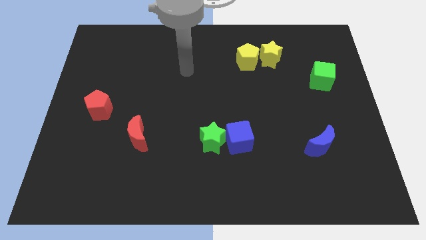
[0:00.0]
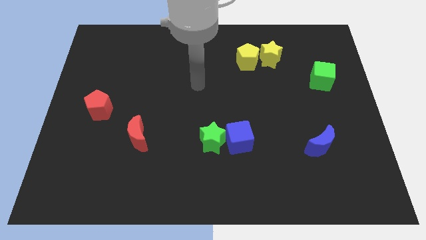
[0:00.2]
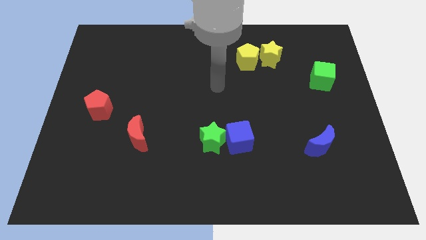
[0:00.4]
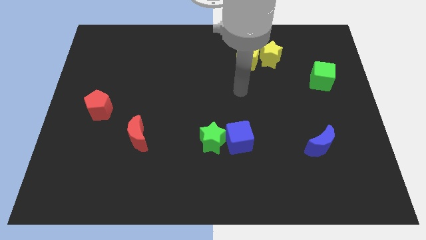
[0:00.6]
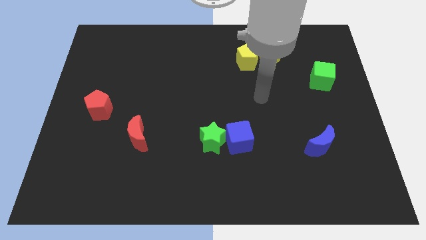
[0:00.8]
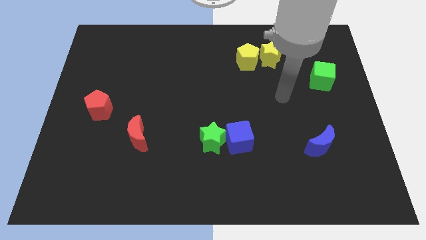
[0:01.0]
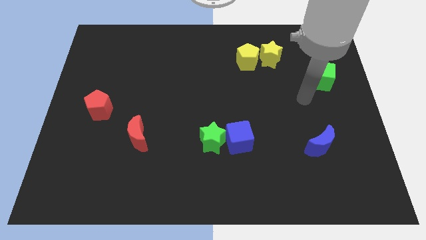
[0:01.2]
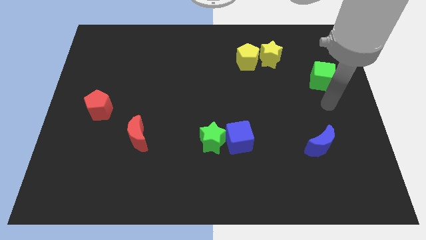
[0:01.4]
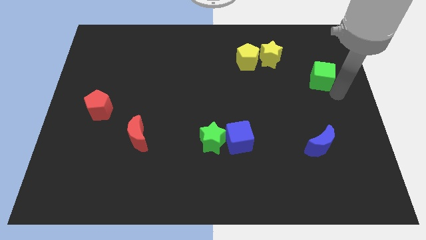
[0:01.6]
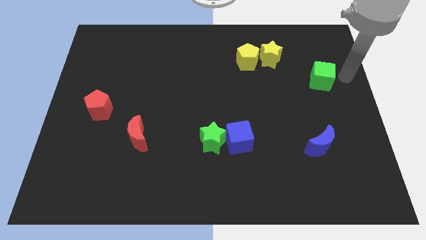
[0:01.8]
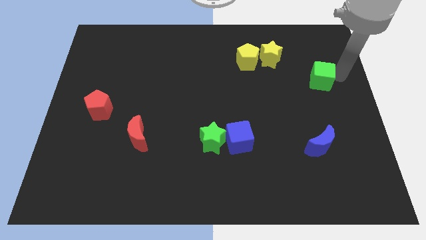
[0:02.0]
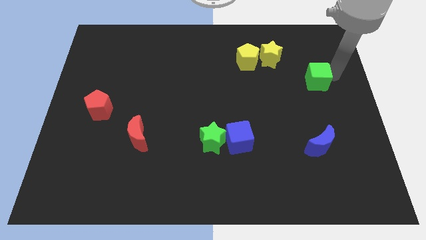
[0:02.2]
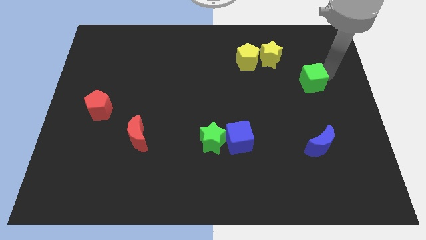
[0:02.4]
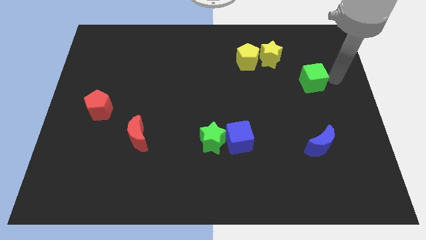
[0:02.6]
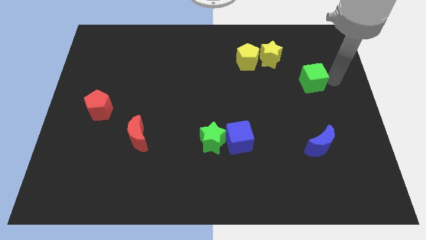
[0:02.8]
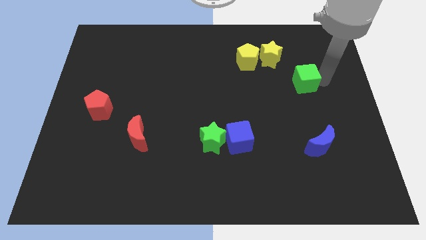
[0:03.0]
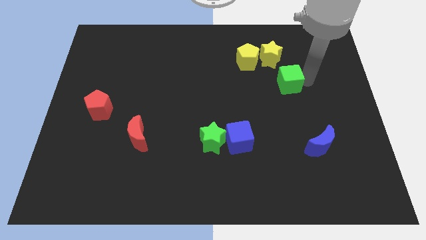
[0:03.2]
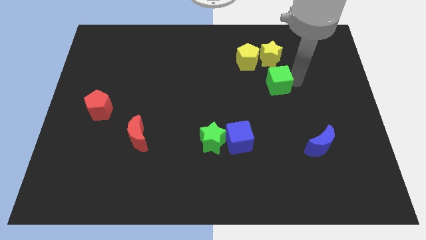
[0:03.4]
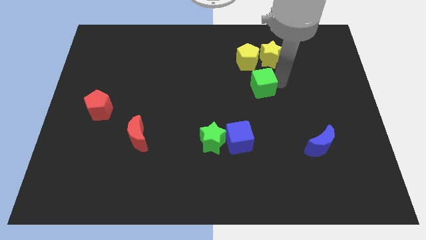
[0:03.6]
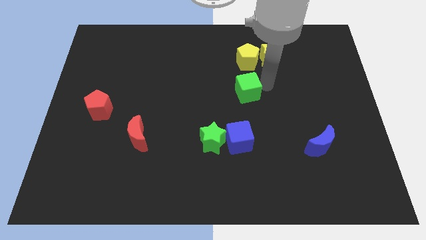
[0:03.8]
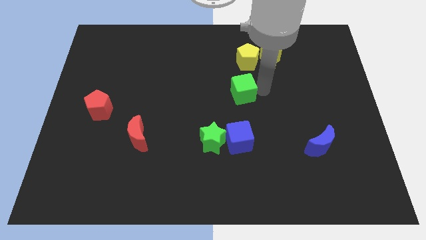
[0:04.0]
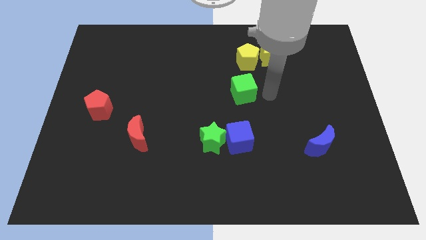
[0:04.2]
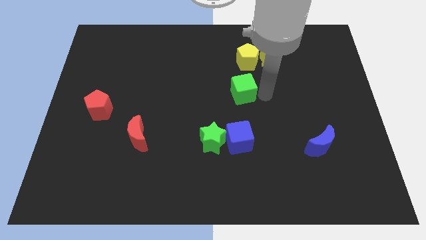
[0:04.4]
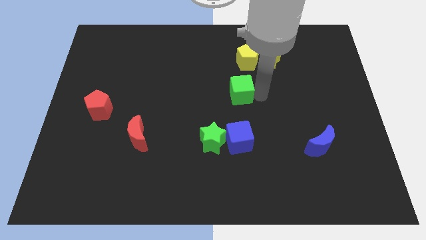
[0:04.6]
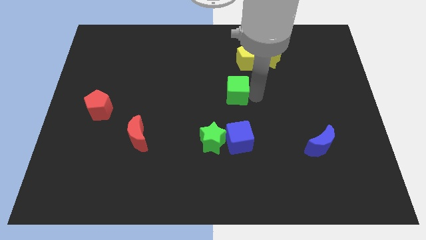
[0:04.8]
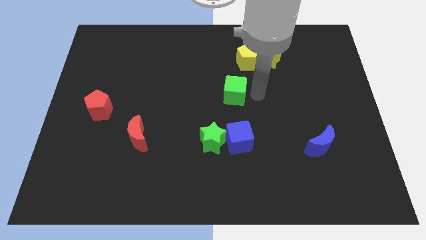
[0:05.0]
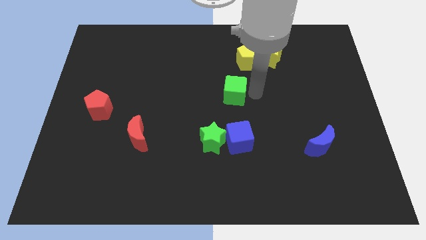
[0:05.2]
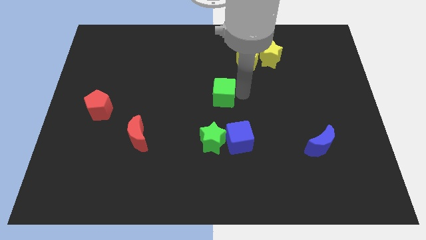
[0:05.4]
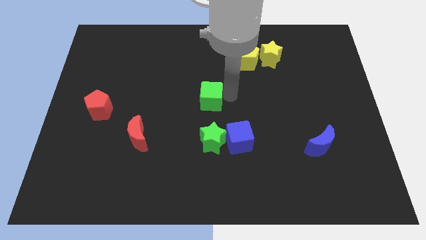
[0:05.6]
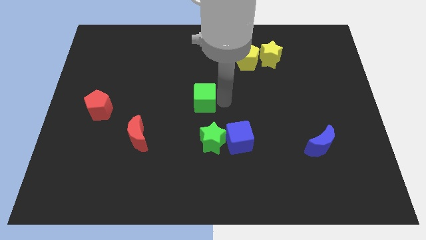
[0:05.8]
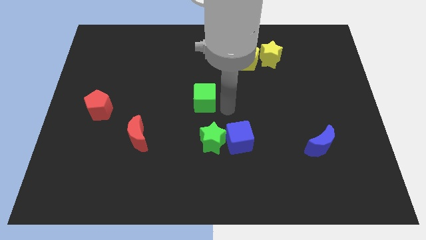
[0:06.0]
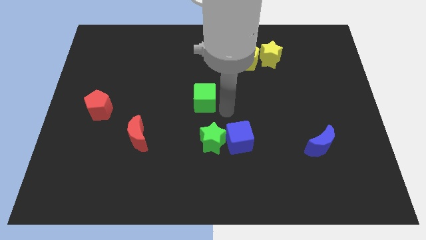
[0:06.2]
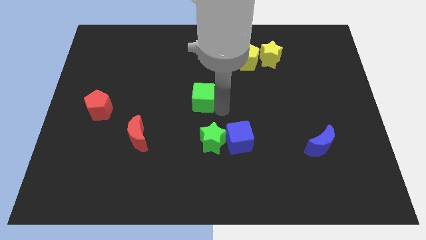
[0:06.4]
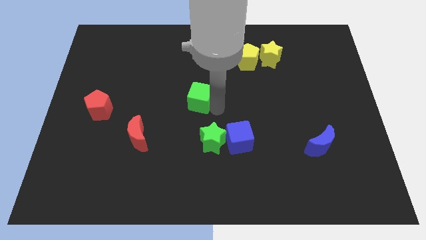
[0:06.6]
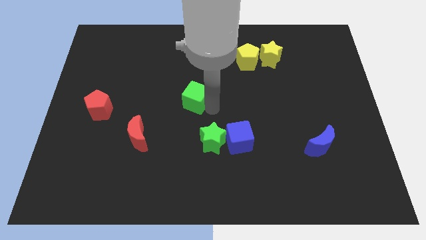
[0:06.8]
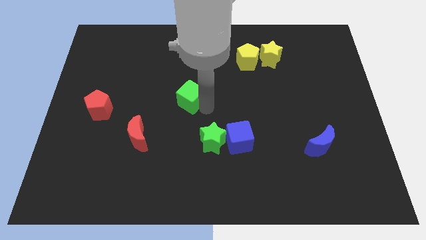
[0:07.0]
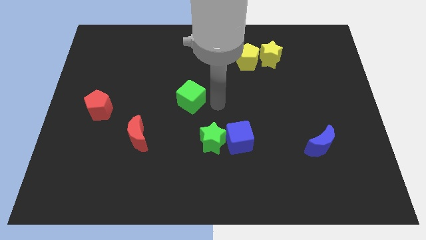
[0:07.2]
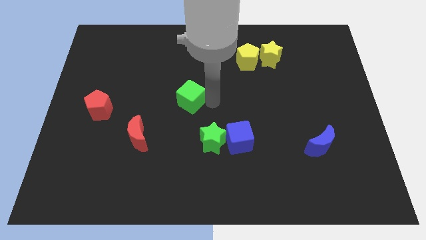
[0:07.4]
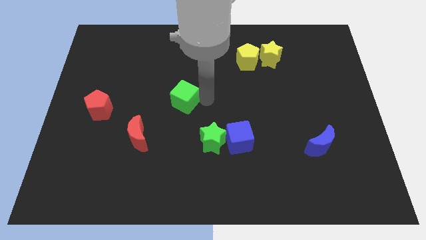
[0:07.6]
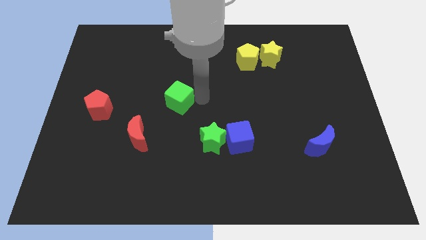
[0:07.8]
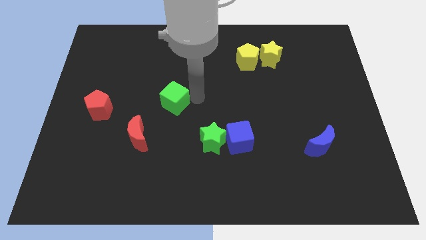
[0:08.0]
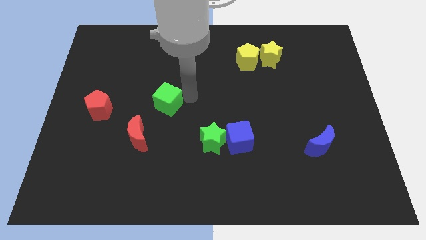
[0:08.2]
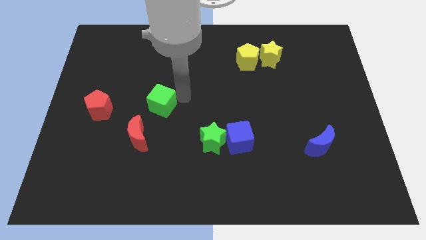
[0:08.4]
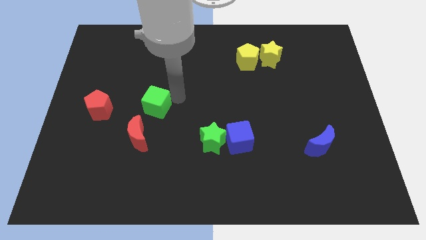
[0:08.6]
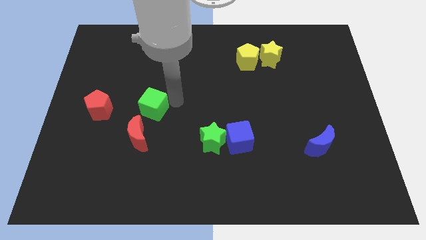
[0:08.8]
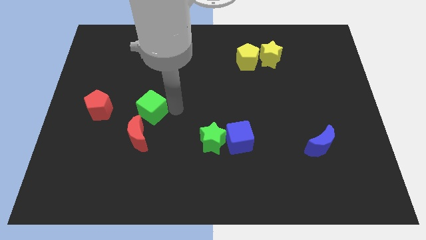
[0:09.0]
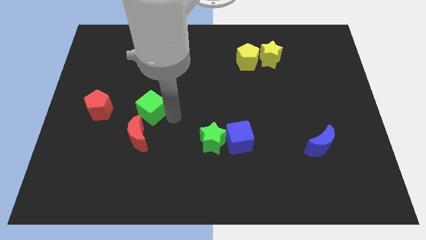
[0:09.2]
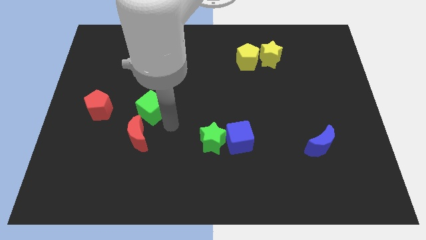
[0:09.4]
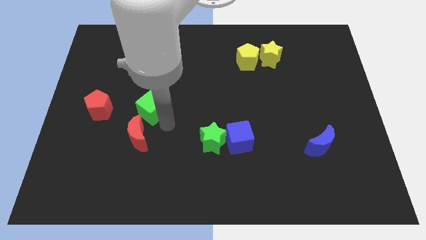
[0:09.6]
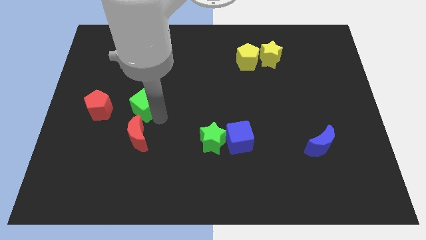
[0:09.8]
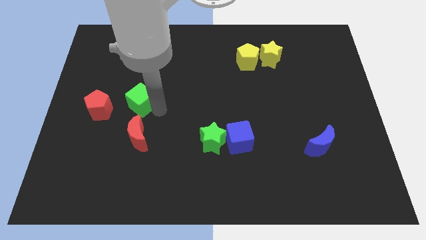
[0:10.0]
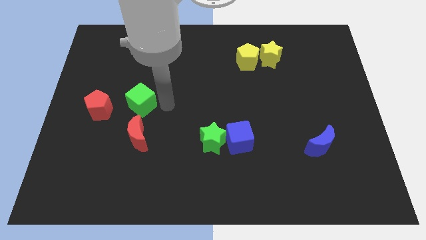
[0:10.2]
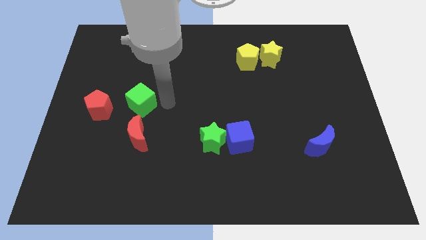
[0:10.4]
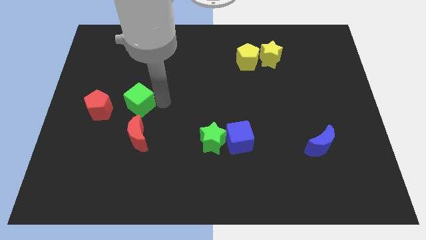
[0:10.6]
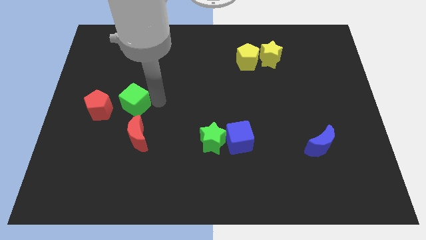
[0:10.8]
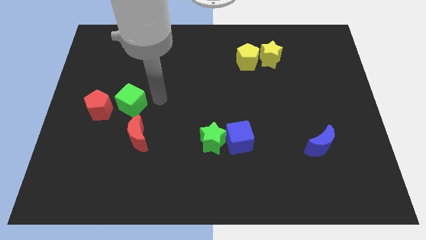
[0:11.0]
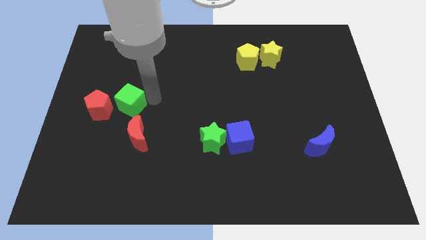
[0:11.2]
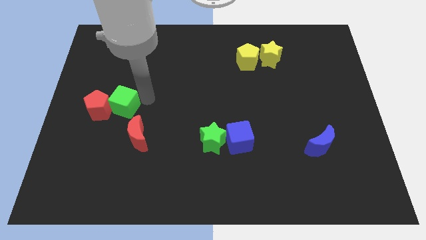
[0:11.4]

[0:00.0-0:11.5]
push the green cube towards the red pentagon

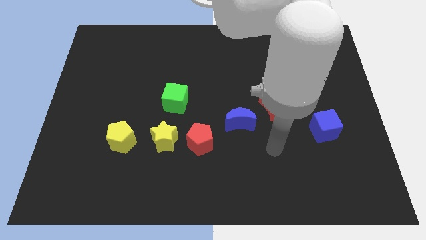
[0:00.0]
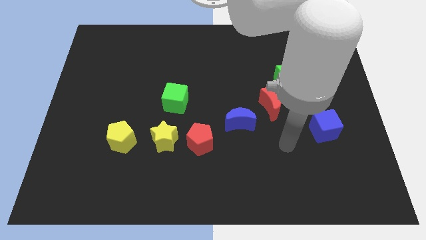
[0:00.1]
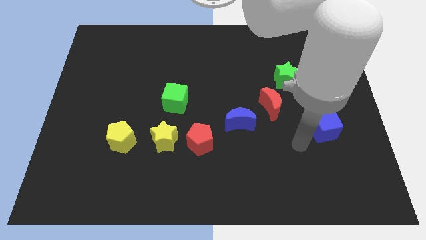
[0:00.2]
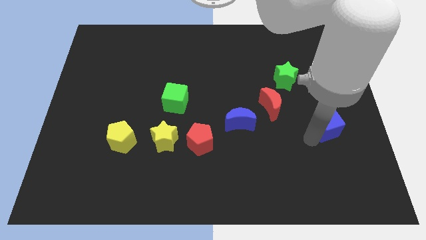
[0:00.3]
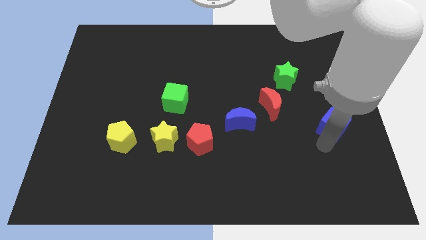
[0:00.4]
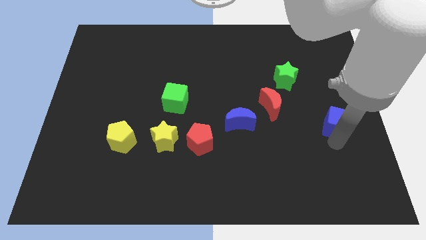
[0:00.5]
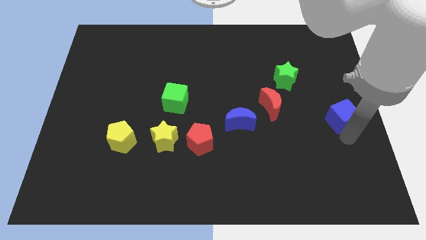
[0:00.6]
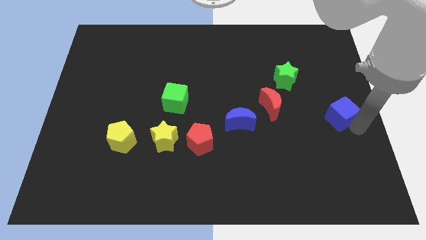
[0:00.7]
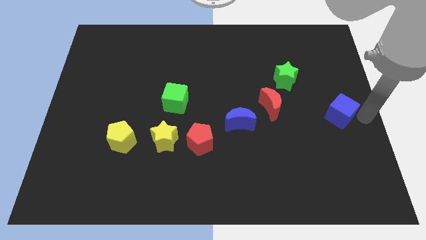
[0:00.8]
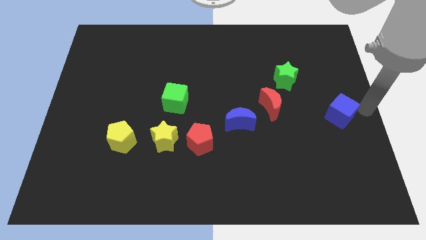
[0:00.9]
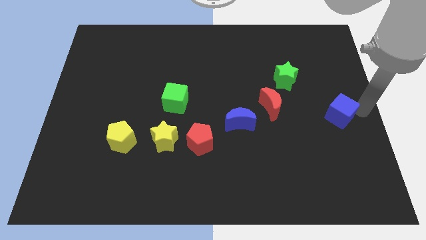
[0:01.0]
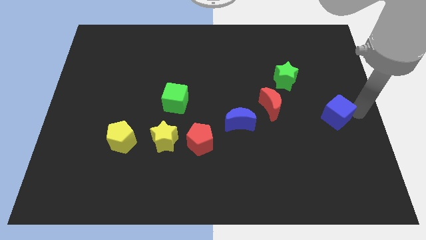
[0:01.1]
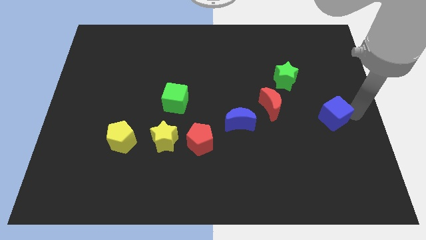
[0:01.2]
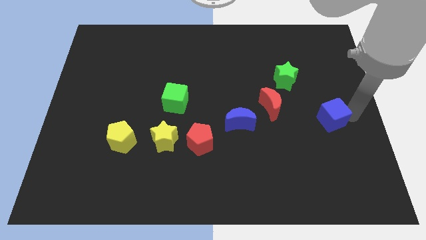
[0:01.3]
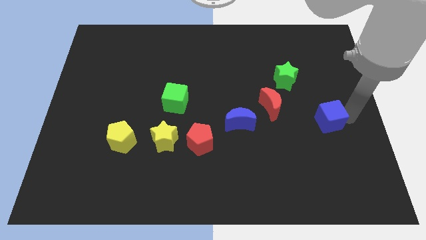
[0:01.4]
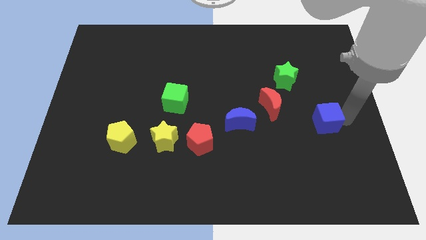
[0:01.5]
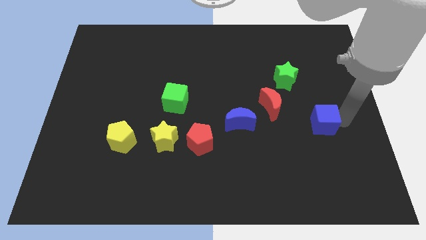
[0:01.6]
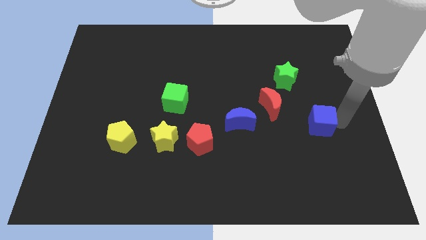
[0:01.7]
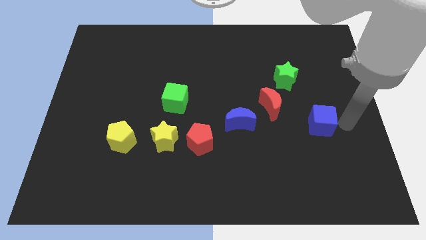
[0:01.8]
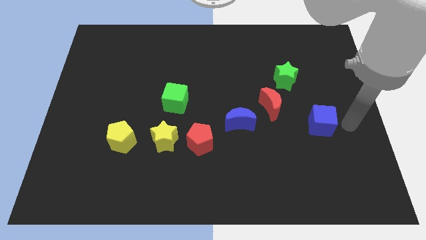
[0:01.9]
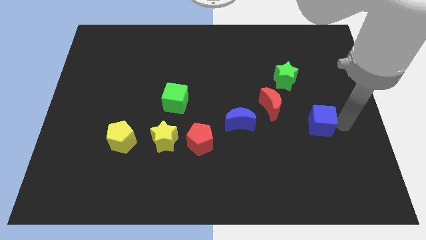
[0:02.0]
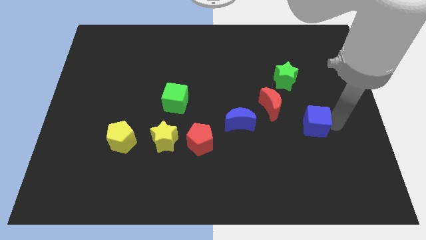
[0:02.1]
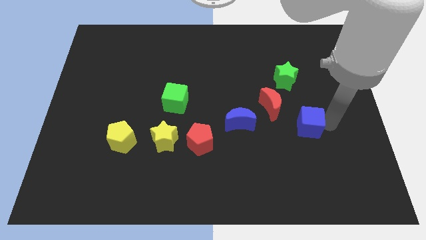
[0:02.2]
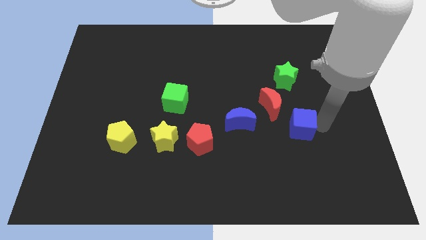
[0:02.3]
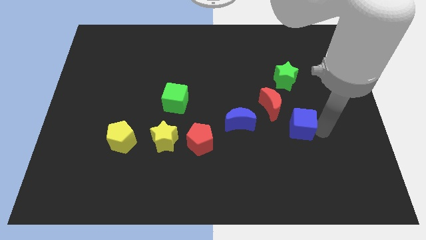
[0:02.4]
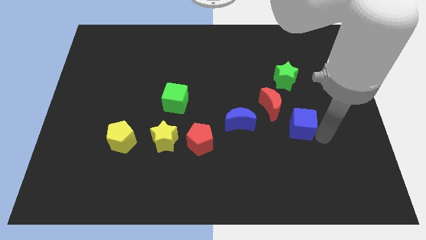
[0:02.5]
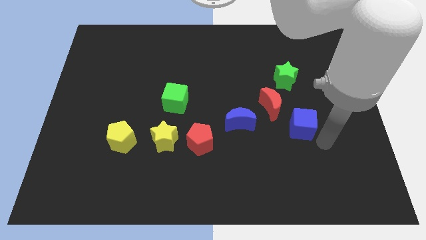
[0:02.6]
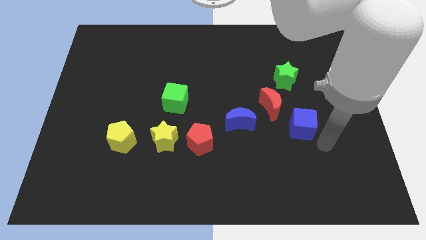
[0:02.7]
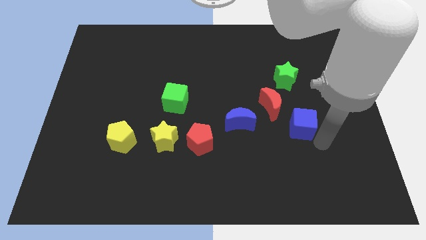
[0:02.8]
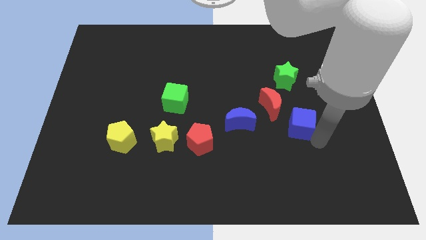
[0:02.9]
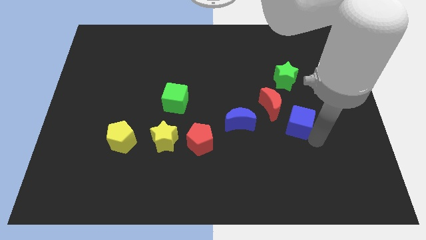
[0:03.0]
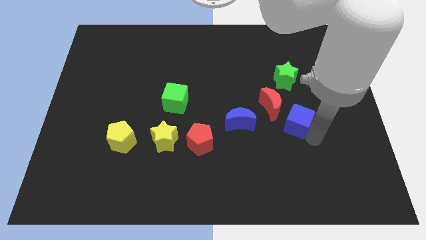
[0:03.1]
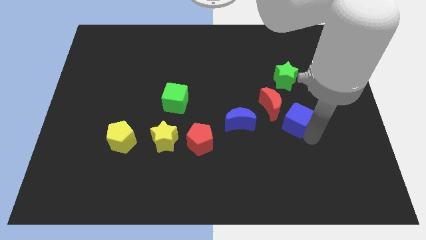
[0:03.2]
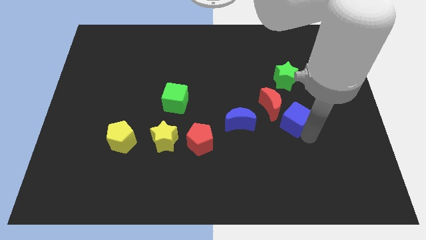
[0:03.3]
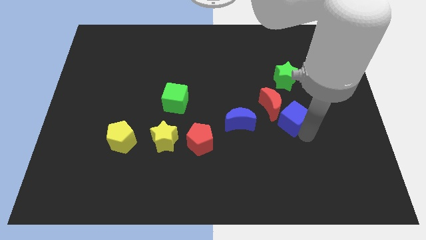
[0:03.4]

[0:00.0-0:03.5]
push the blue cube towards the red moon
